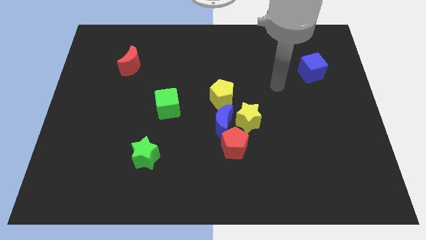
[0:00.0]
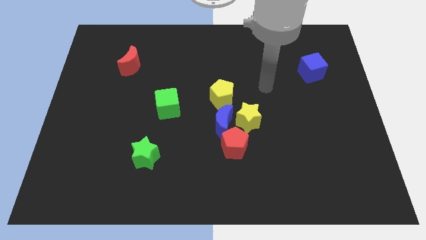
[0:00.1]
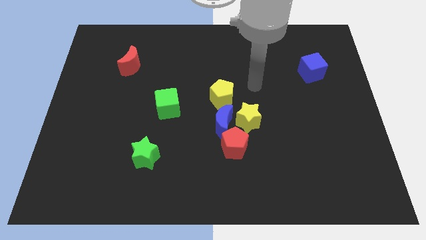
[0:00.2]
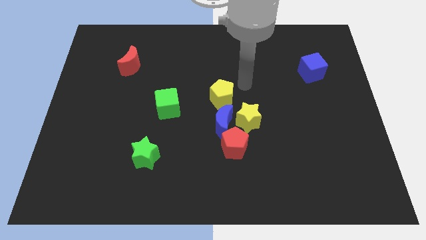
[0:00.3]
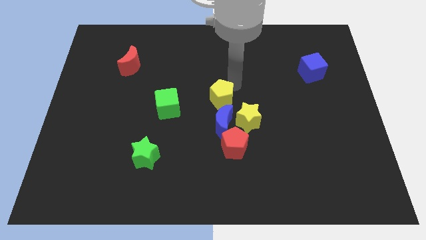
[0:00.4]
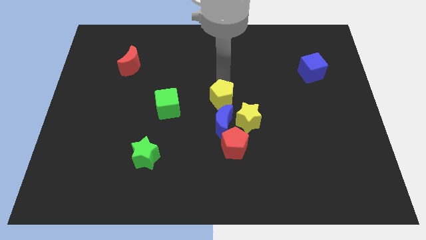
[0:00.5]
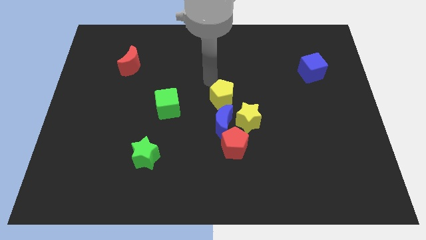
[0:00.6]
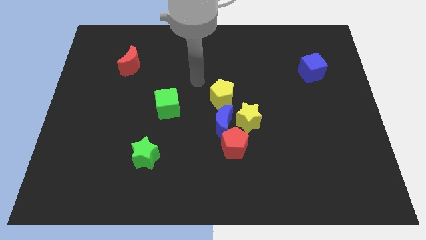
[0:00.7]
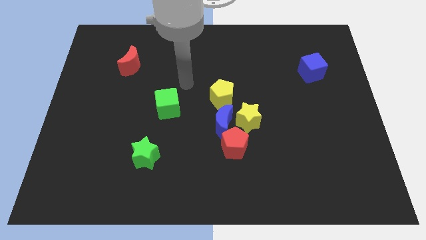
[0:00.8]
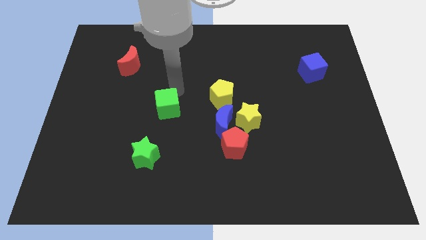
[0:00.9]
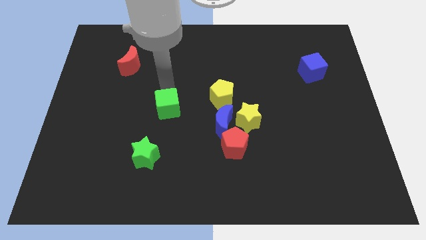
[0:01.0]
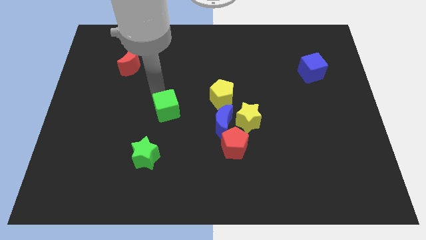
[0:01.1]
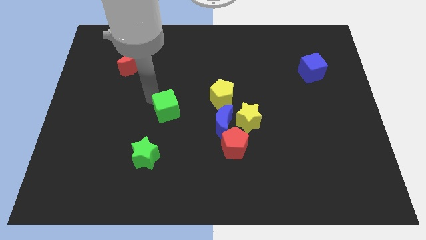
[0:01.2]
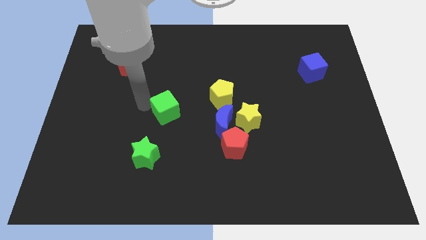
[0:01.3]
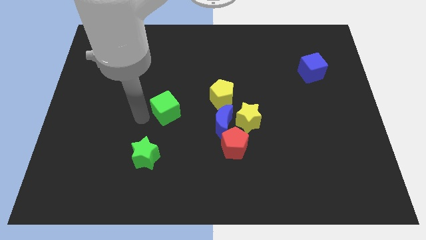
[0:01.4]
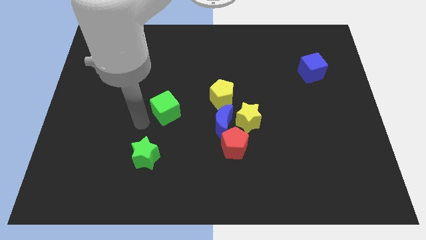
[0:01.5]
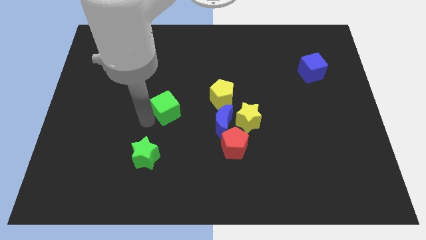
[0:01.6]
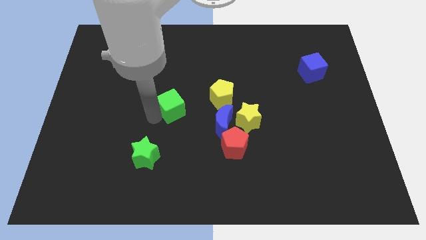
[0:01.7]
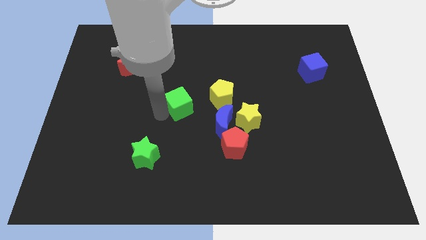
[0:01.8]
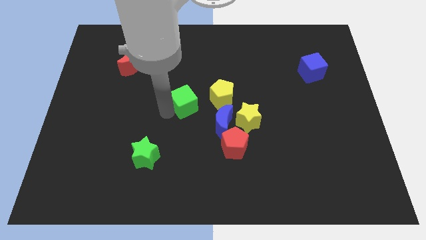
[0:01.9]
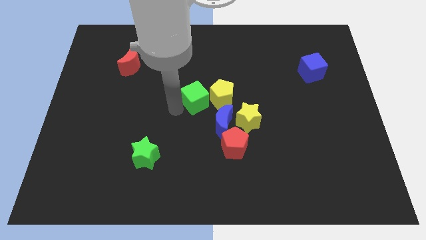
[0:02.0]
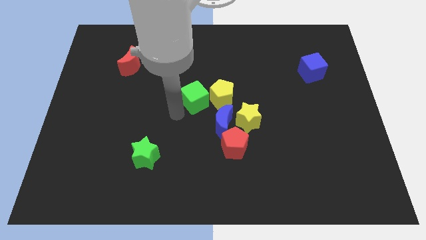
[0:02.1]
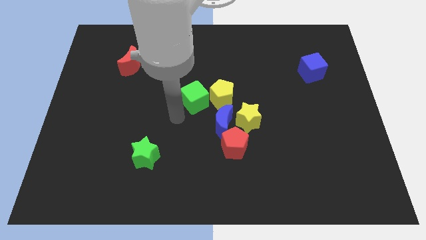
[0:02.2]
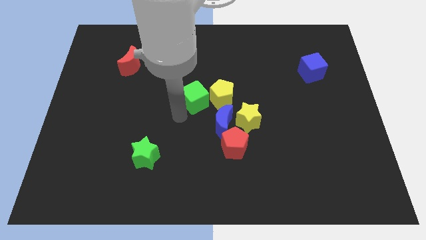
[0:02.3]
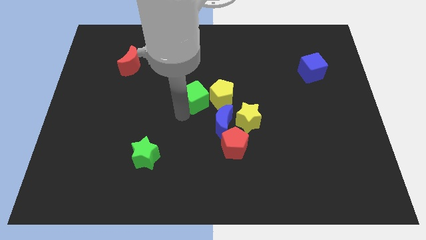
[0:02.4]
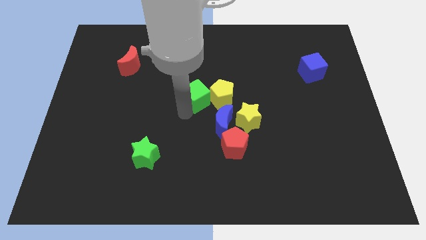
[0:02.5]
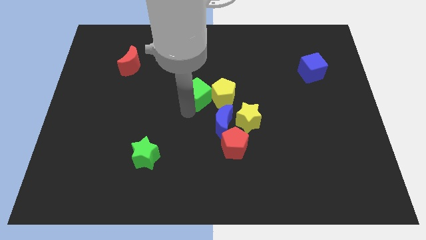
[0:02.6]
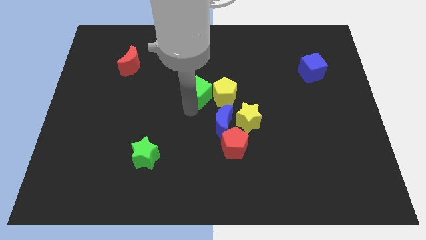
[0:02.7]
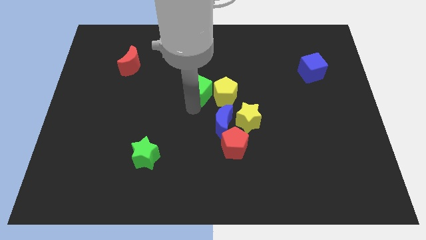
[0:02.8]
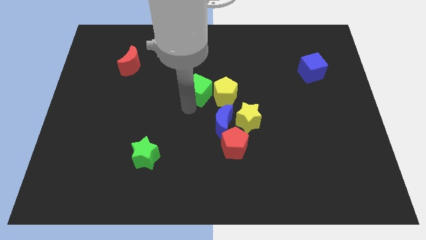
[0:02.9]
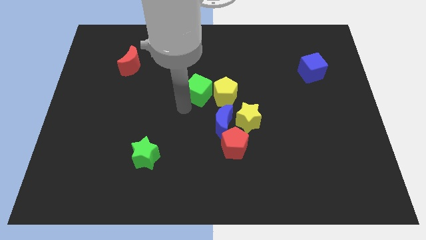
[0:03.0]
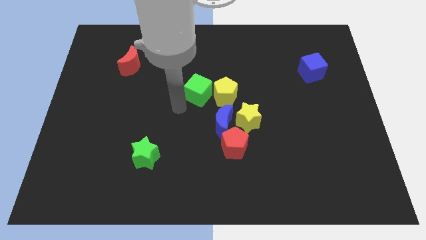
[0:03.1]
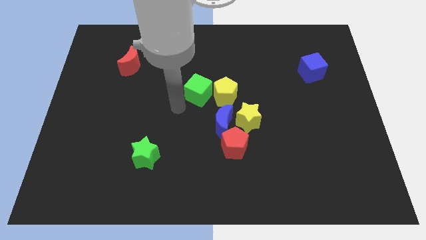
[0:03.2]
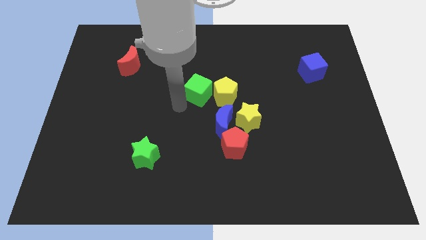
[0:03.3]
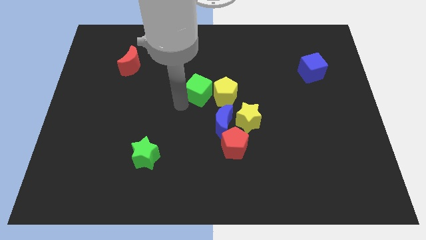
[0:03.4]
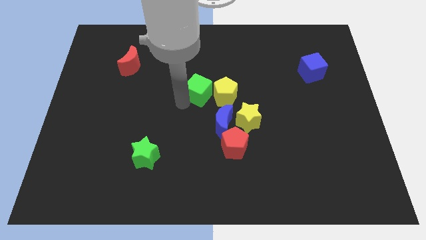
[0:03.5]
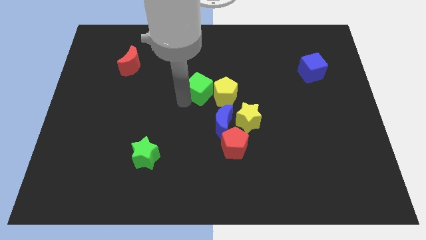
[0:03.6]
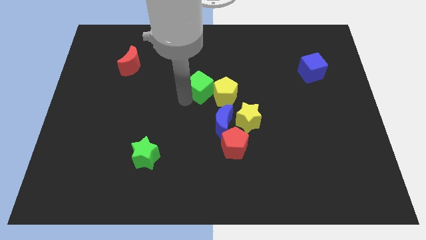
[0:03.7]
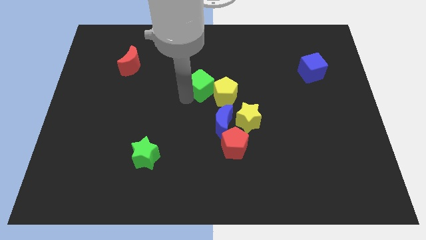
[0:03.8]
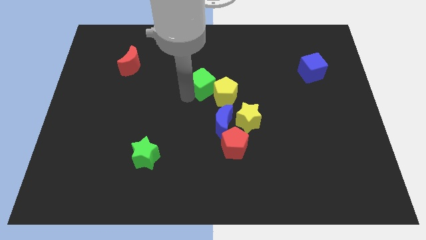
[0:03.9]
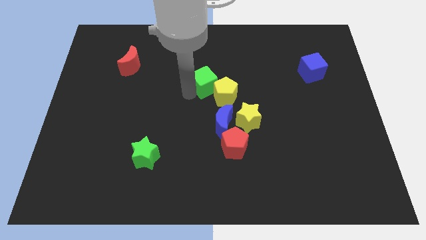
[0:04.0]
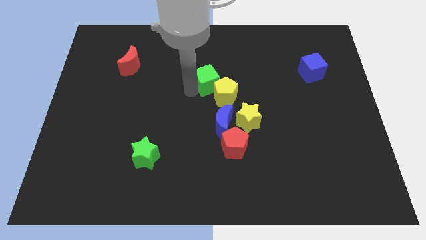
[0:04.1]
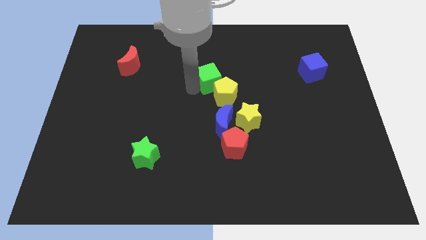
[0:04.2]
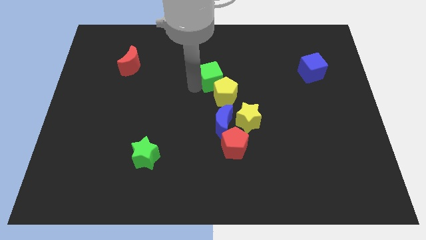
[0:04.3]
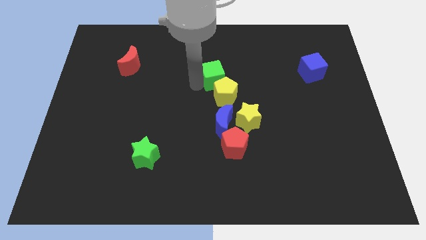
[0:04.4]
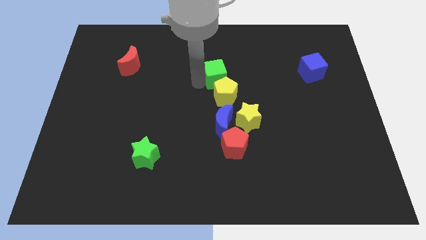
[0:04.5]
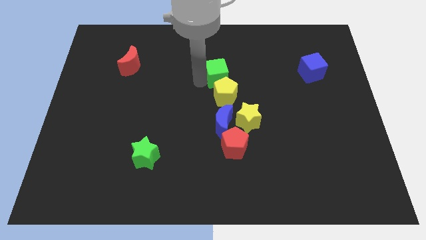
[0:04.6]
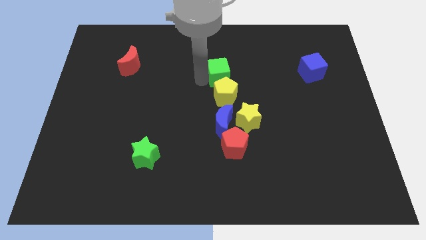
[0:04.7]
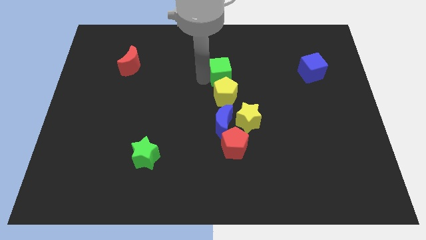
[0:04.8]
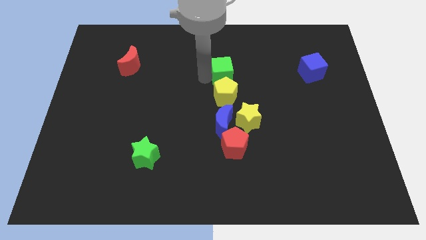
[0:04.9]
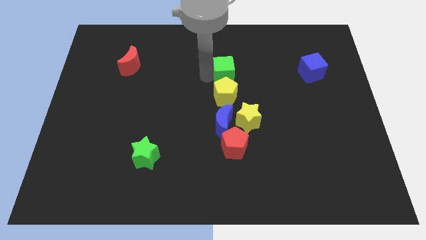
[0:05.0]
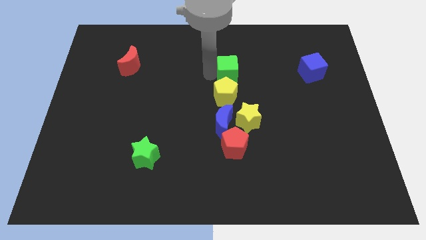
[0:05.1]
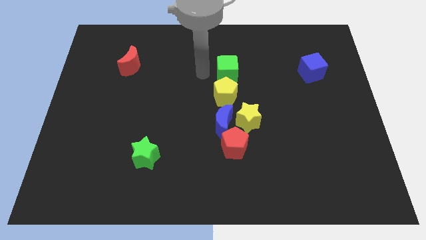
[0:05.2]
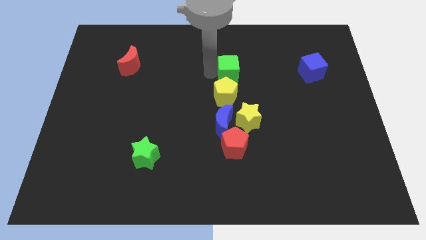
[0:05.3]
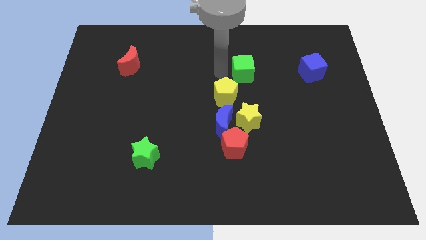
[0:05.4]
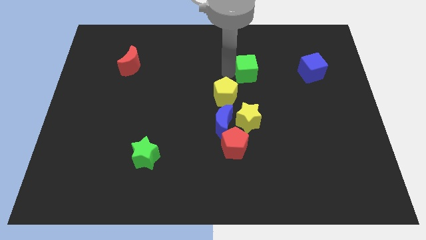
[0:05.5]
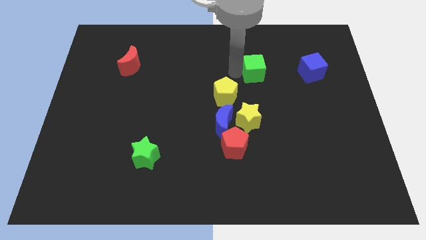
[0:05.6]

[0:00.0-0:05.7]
push the green cube to the left side of the blue cube

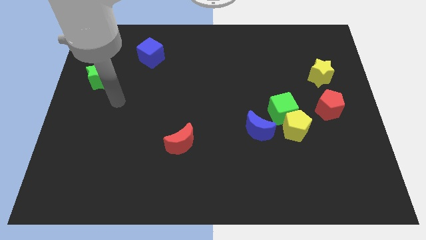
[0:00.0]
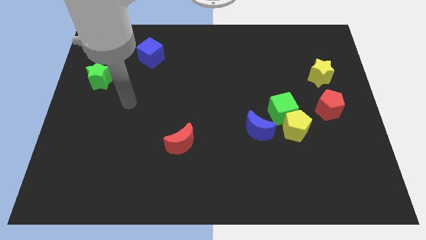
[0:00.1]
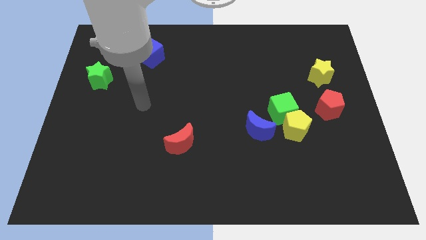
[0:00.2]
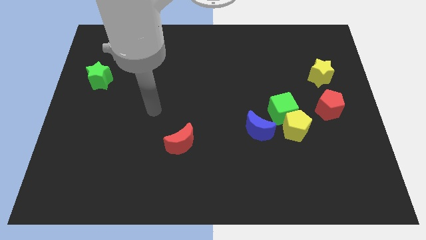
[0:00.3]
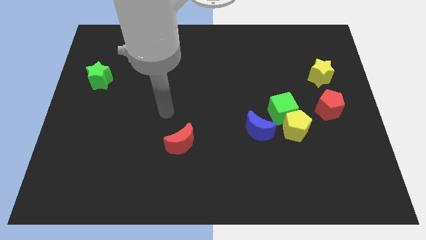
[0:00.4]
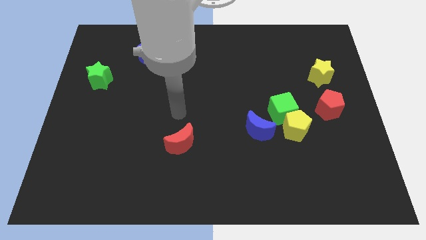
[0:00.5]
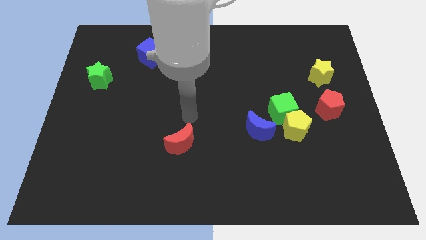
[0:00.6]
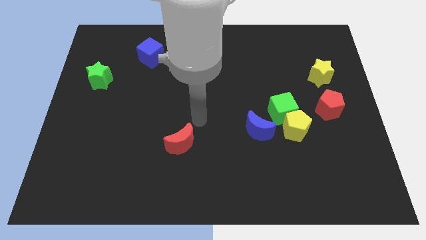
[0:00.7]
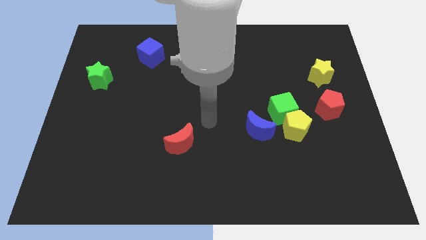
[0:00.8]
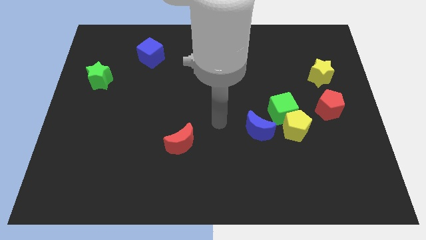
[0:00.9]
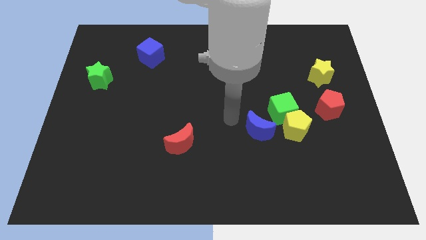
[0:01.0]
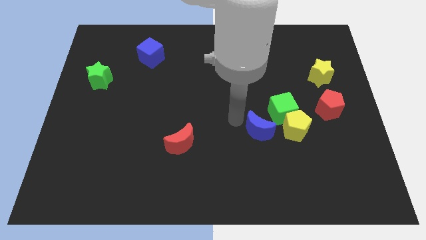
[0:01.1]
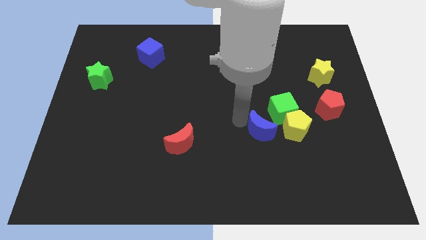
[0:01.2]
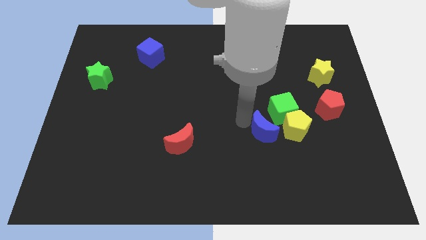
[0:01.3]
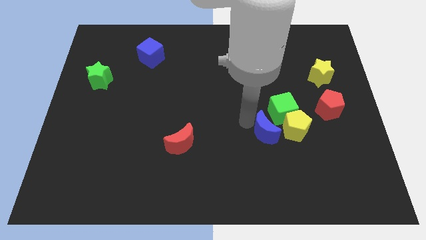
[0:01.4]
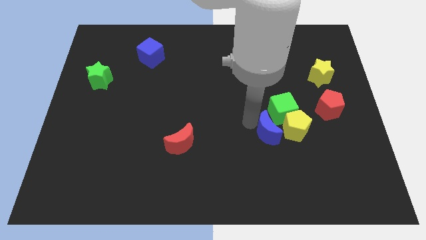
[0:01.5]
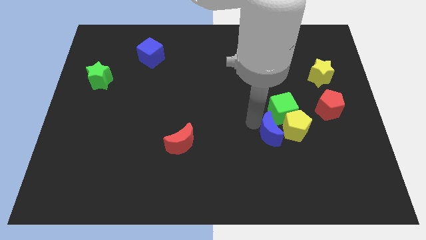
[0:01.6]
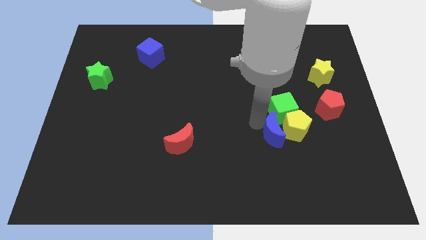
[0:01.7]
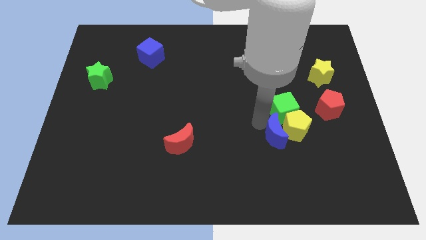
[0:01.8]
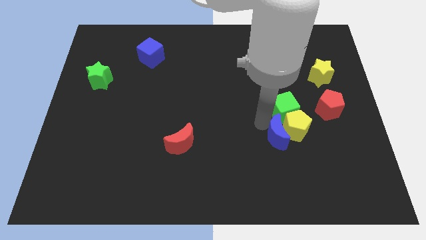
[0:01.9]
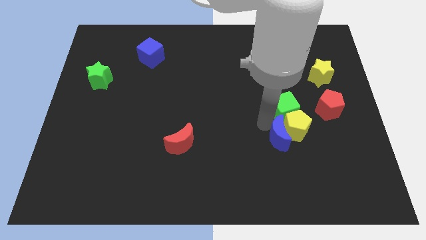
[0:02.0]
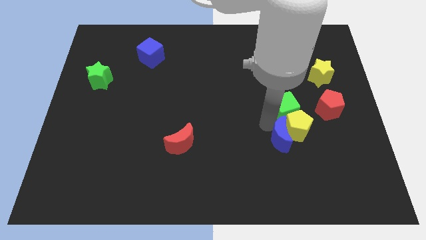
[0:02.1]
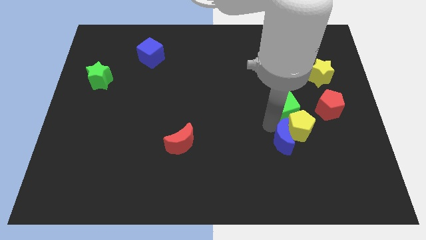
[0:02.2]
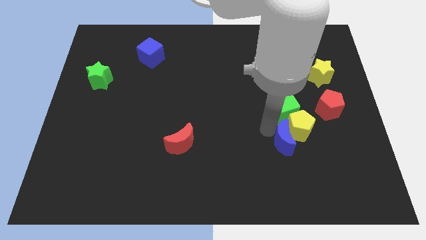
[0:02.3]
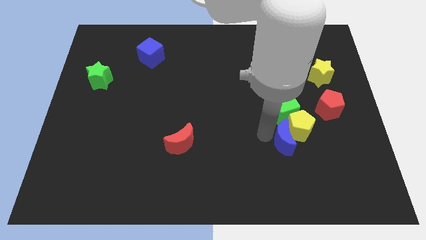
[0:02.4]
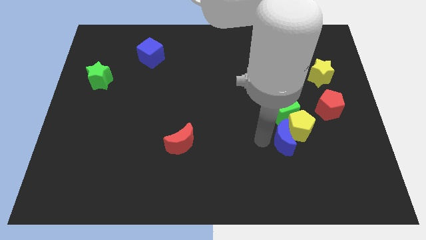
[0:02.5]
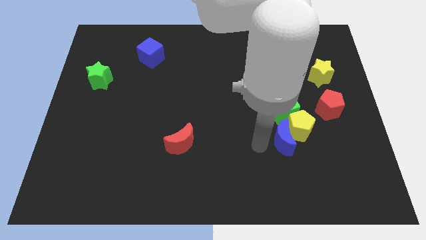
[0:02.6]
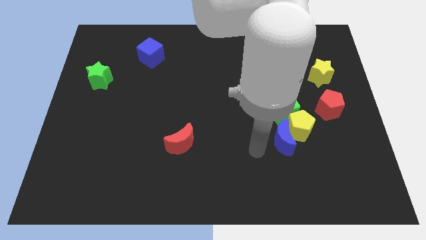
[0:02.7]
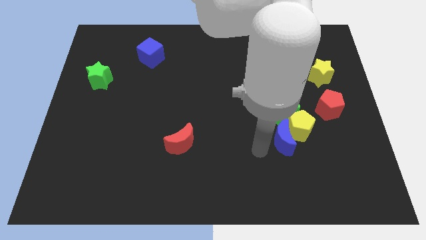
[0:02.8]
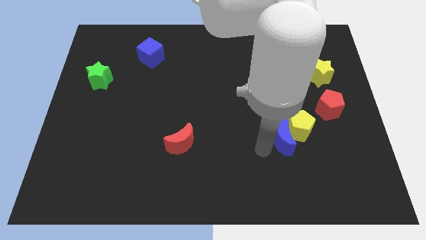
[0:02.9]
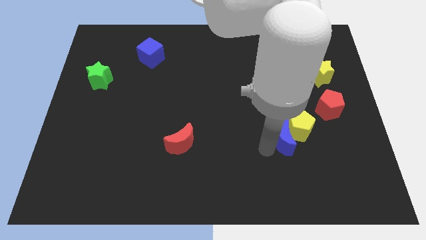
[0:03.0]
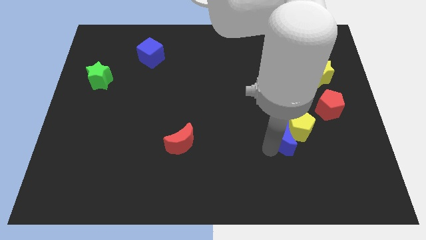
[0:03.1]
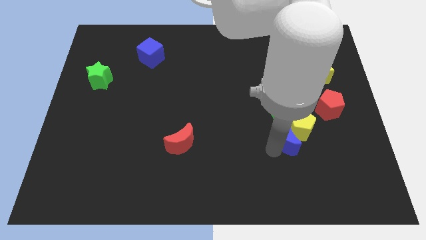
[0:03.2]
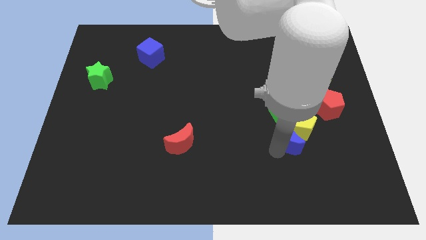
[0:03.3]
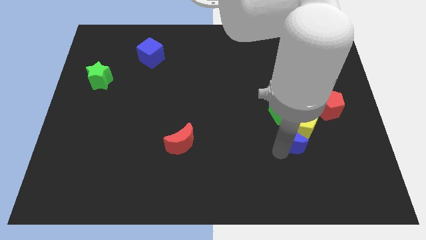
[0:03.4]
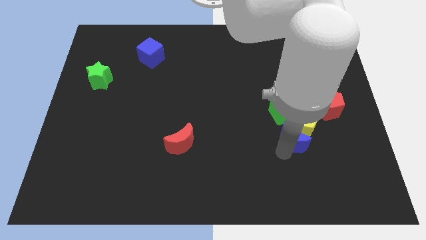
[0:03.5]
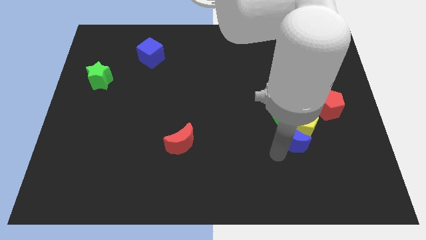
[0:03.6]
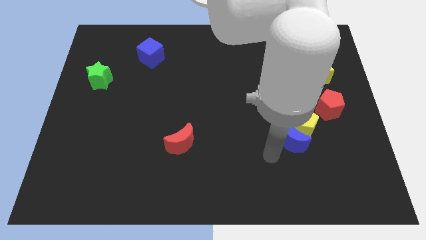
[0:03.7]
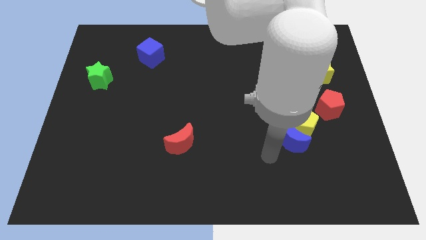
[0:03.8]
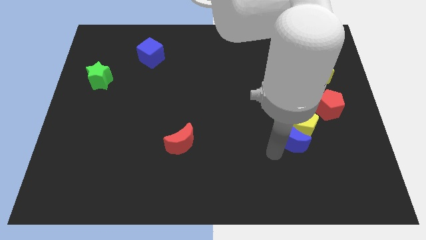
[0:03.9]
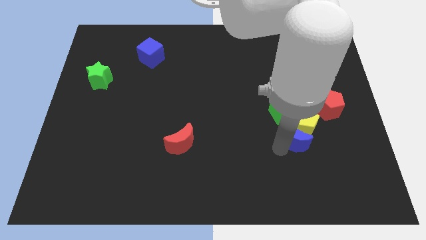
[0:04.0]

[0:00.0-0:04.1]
move the blue moon diagonally down and to the right of the green cube
